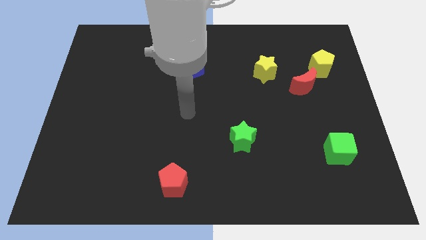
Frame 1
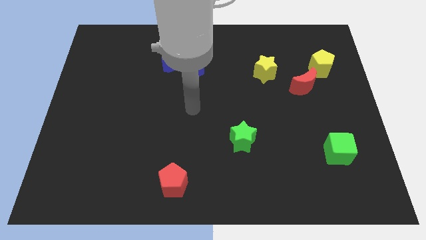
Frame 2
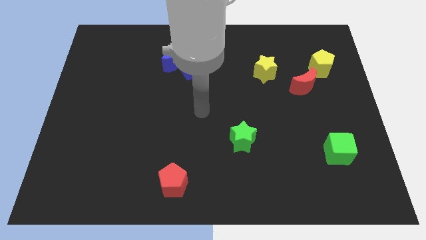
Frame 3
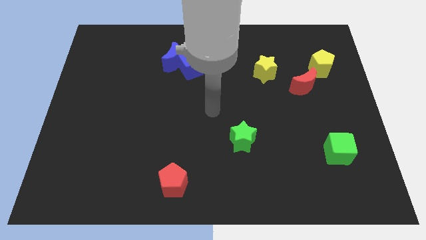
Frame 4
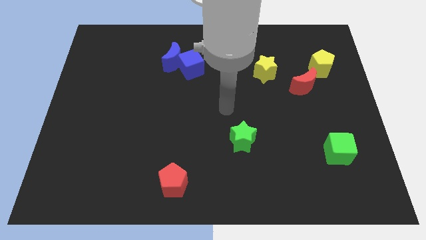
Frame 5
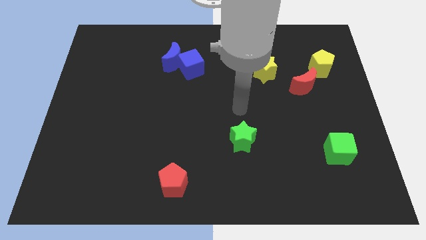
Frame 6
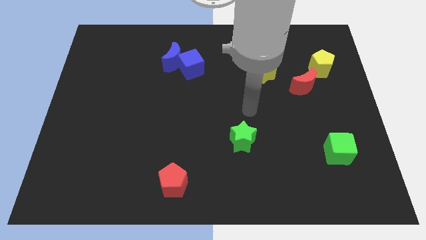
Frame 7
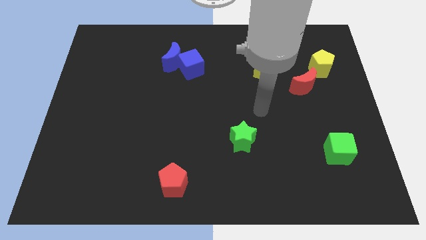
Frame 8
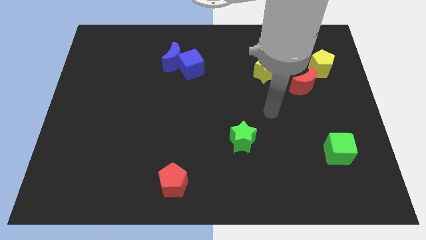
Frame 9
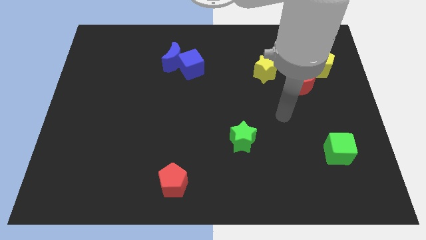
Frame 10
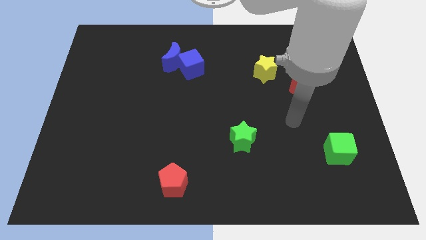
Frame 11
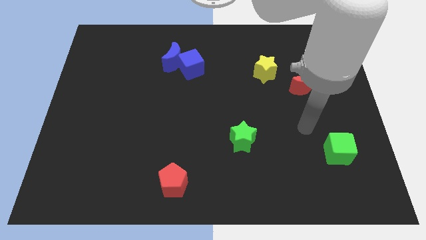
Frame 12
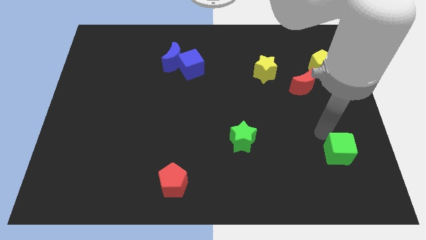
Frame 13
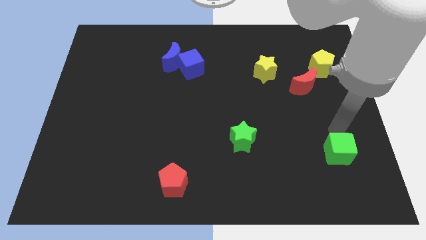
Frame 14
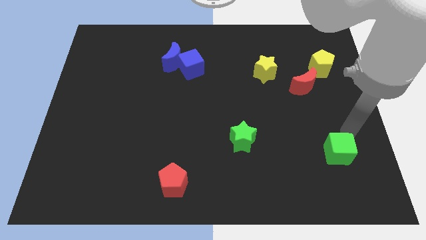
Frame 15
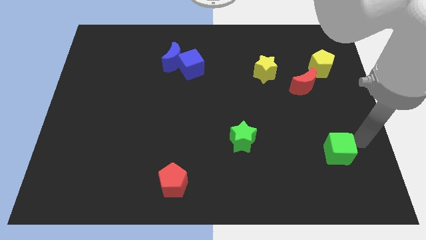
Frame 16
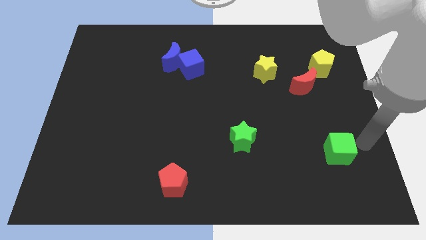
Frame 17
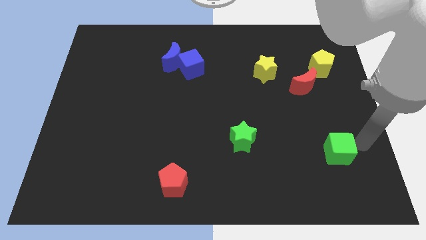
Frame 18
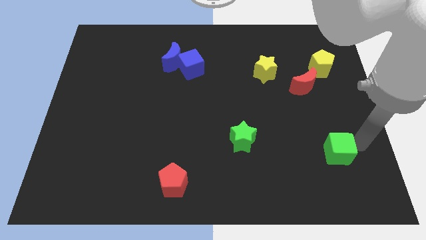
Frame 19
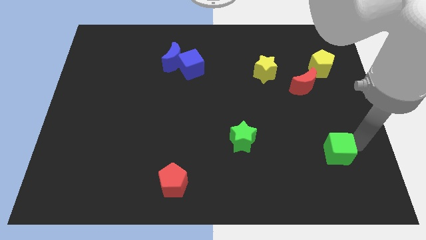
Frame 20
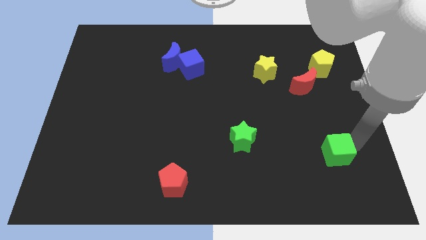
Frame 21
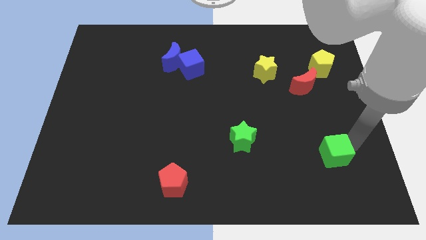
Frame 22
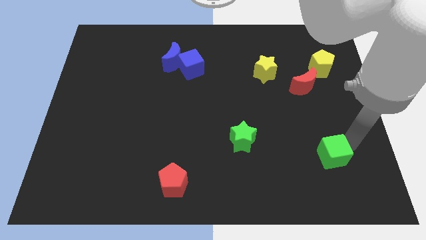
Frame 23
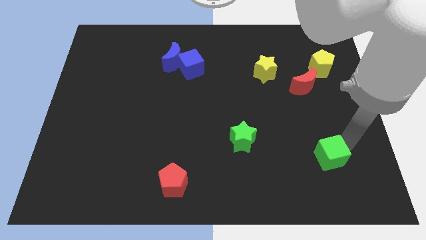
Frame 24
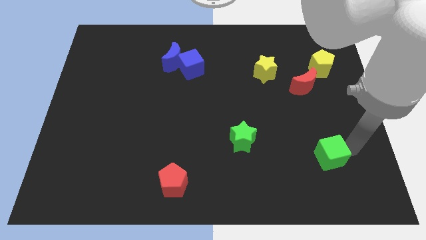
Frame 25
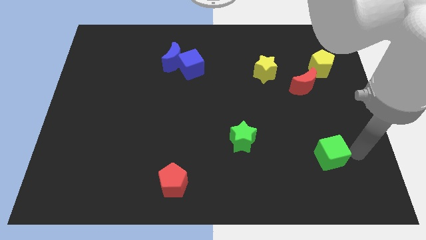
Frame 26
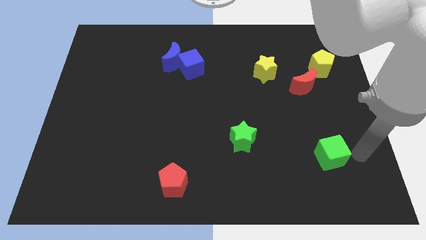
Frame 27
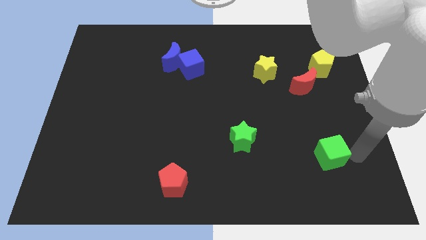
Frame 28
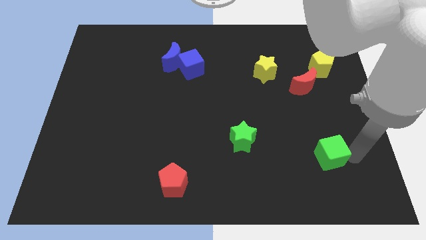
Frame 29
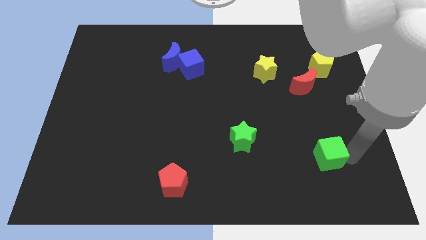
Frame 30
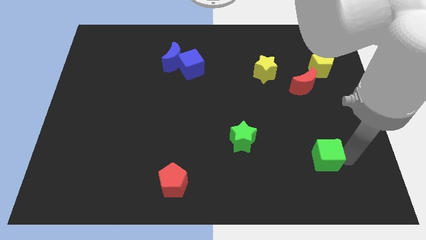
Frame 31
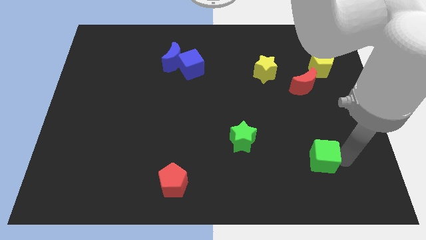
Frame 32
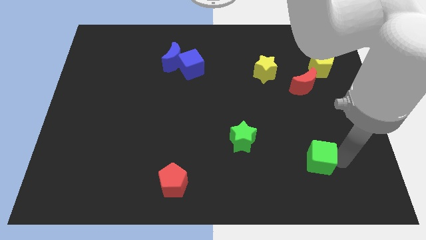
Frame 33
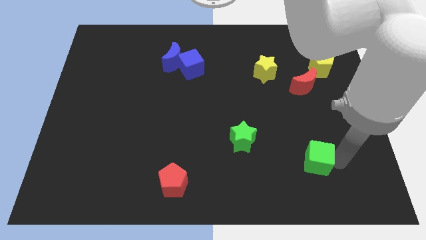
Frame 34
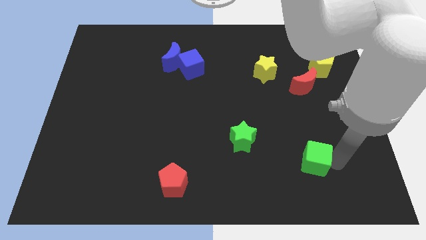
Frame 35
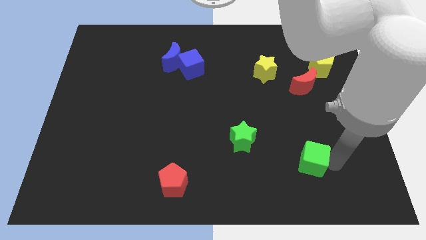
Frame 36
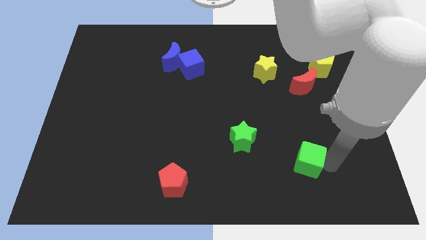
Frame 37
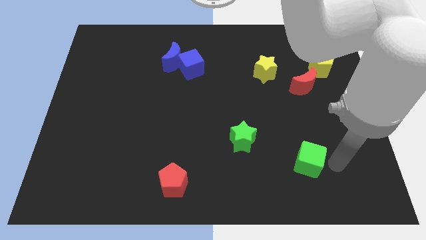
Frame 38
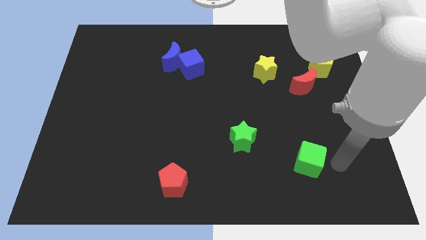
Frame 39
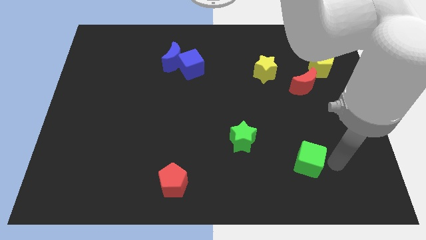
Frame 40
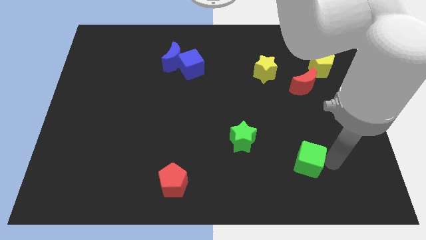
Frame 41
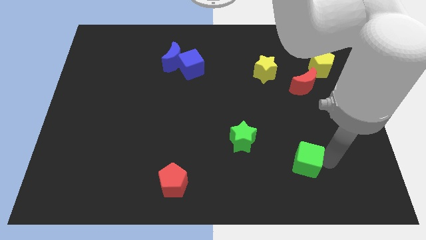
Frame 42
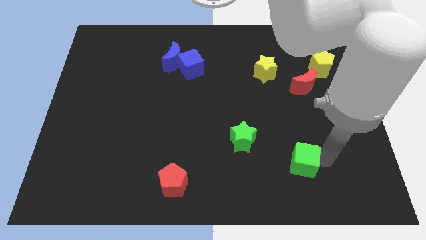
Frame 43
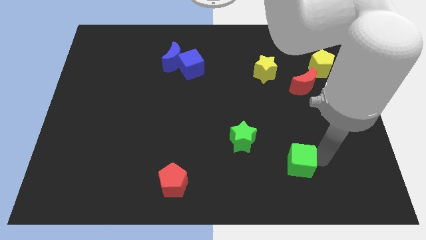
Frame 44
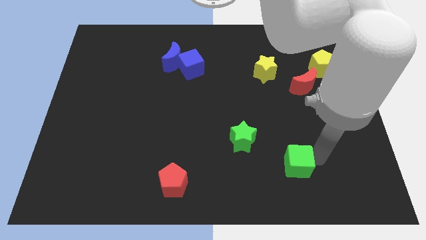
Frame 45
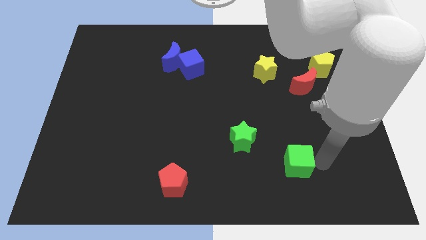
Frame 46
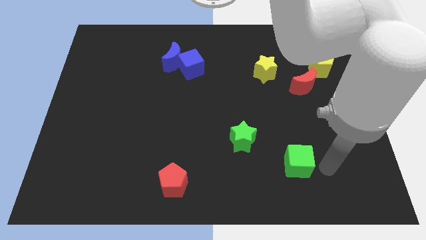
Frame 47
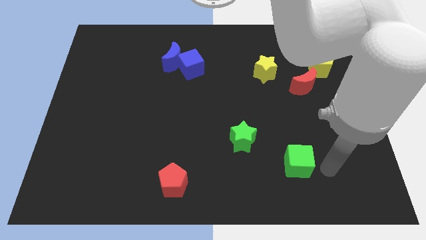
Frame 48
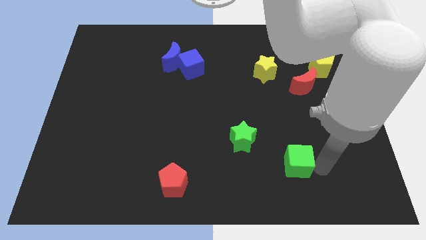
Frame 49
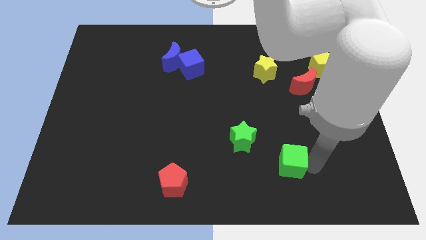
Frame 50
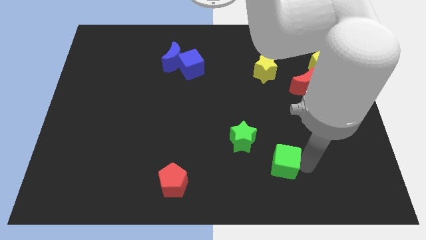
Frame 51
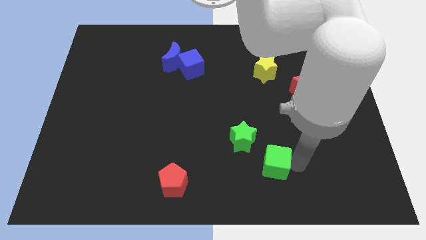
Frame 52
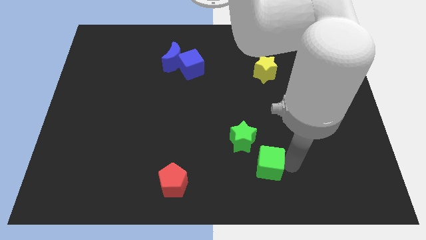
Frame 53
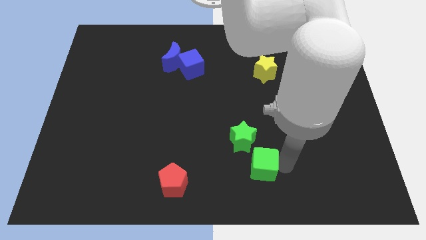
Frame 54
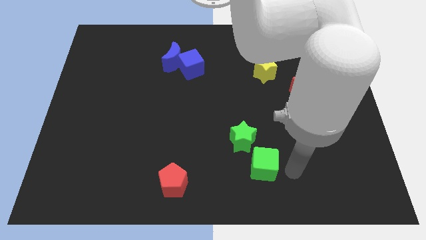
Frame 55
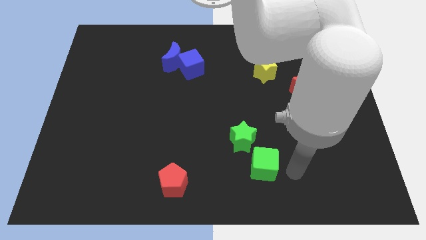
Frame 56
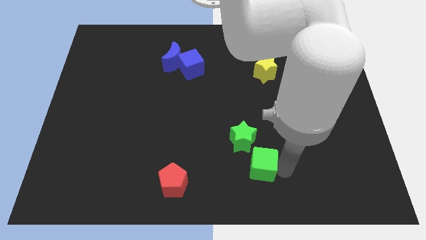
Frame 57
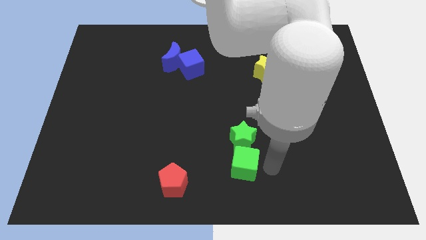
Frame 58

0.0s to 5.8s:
move the green cube to the left

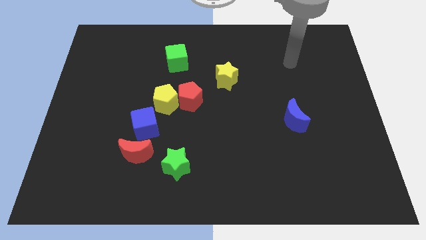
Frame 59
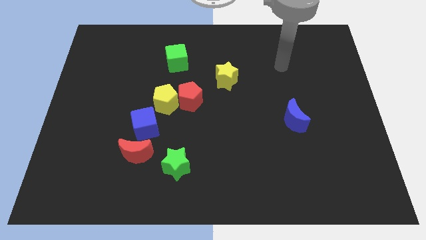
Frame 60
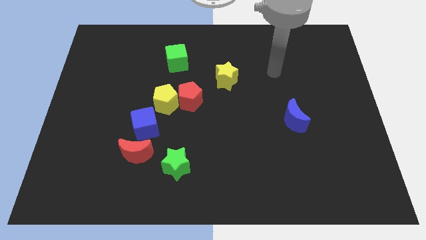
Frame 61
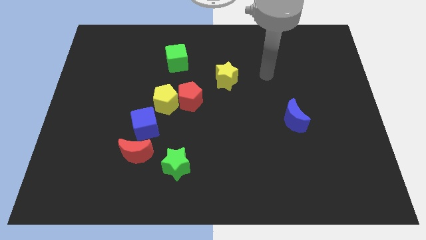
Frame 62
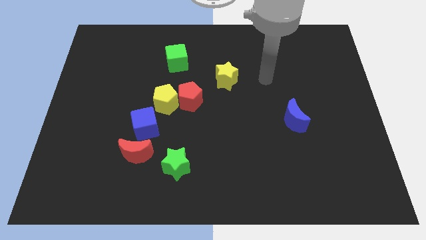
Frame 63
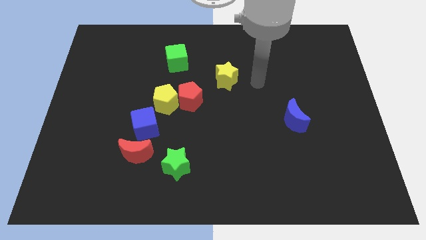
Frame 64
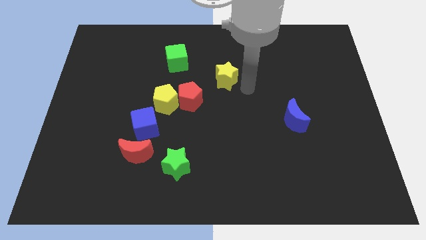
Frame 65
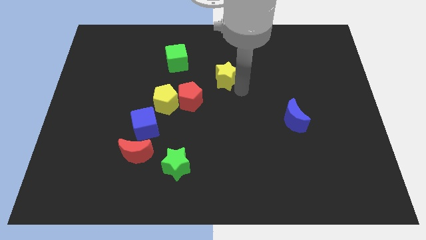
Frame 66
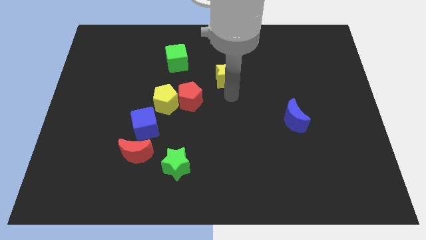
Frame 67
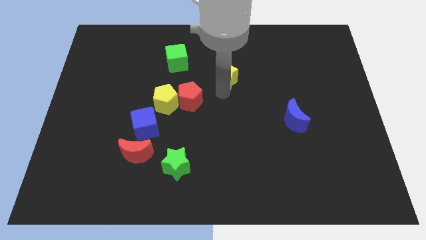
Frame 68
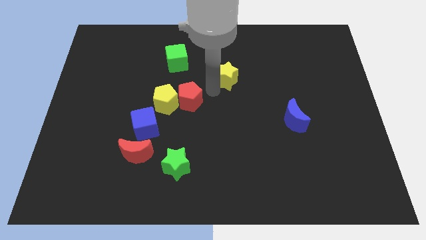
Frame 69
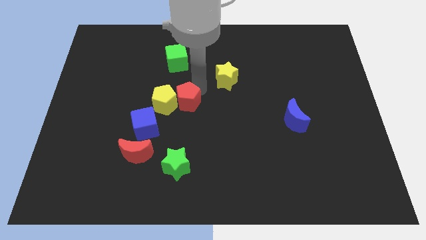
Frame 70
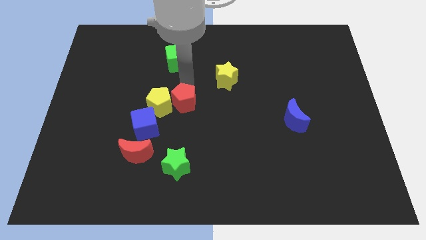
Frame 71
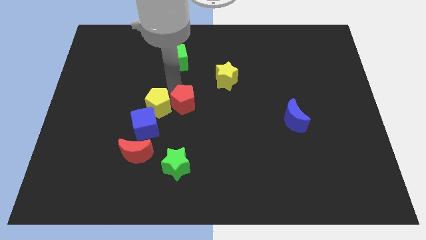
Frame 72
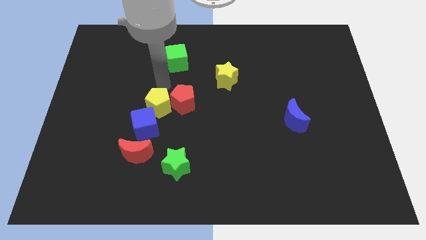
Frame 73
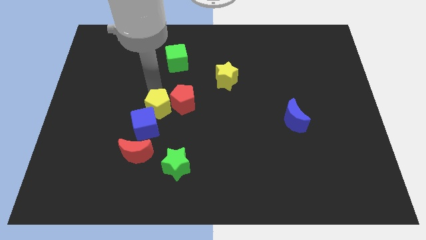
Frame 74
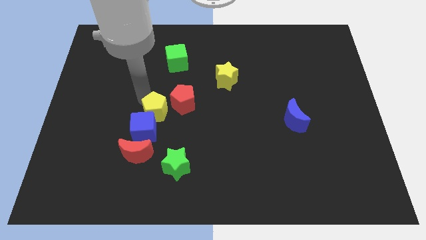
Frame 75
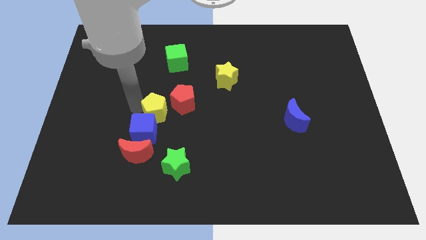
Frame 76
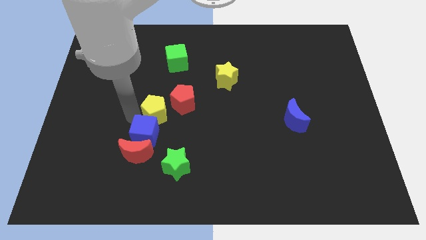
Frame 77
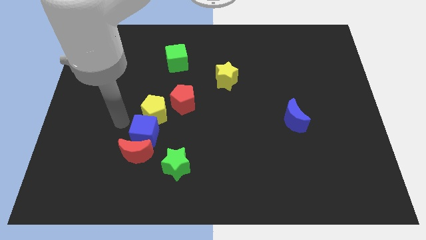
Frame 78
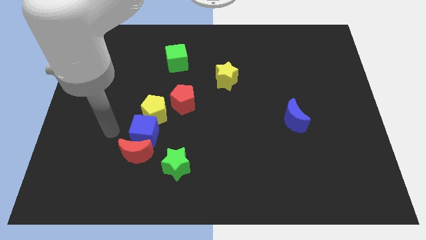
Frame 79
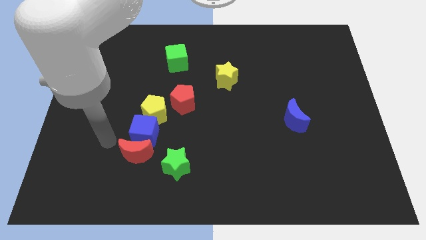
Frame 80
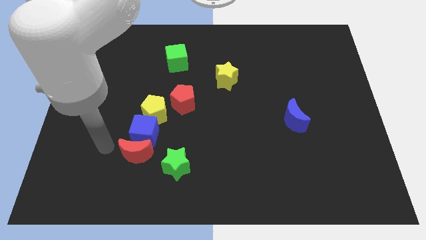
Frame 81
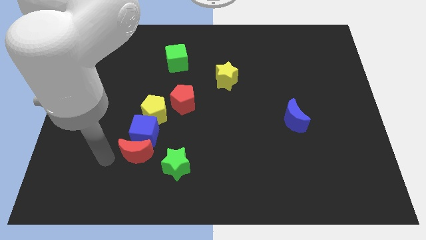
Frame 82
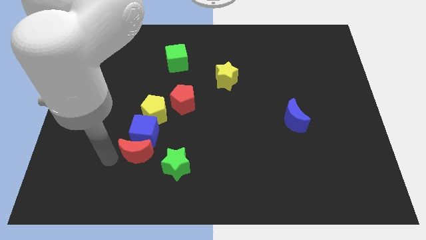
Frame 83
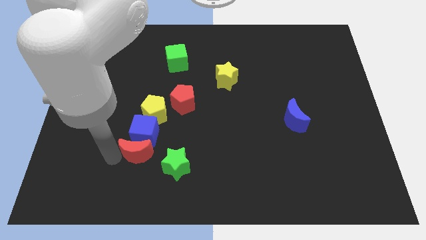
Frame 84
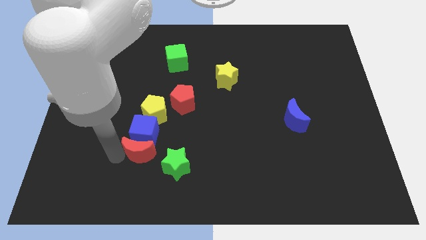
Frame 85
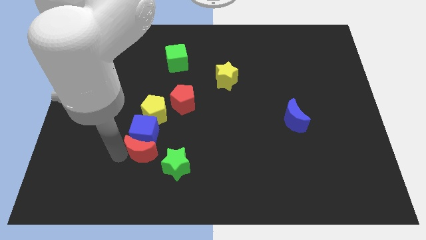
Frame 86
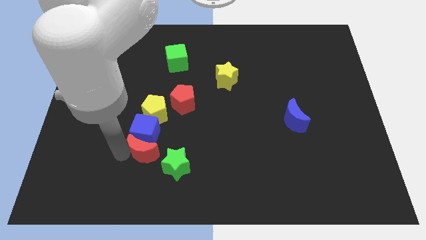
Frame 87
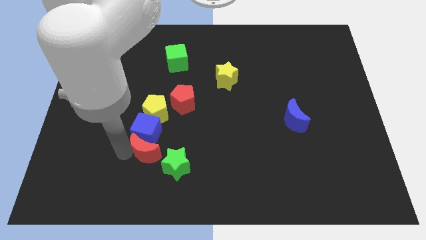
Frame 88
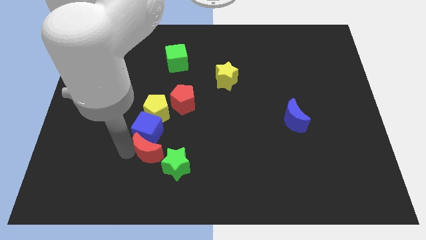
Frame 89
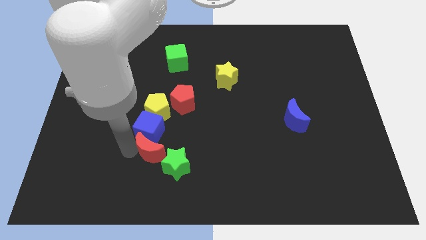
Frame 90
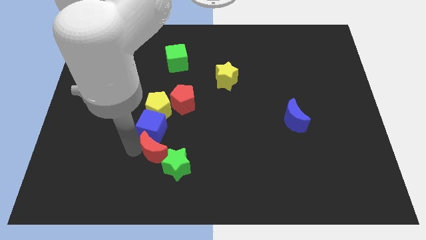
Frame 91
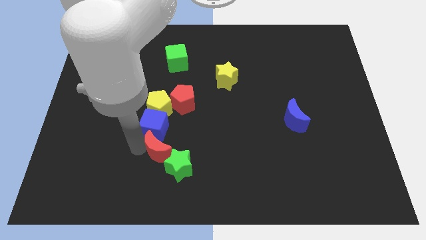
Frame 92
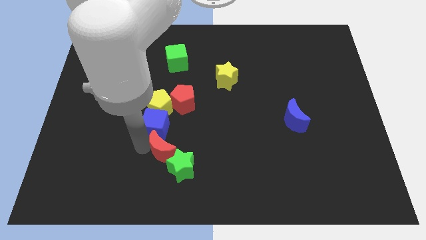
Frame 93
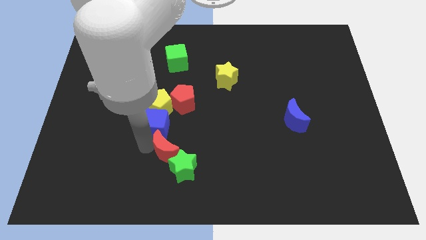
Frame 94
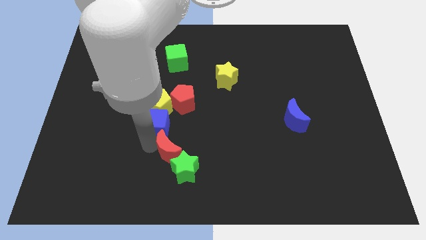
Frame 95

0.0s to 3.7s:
push the red moon a little bit to the right
